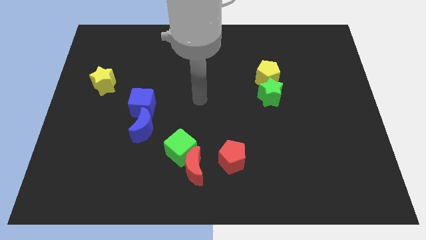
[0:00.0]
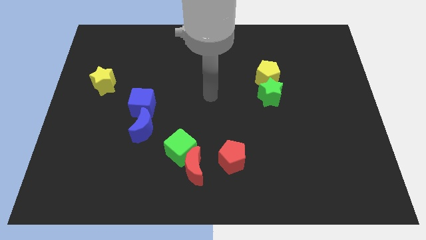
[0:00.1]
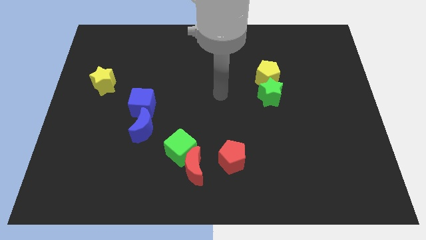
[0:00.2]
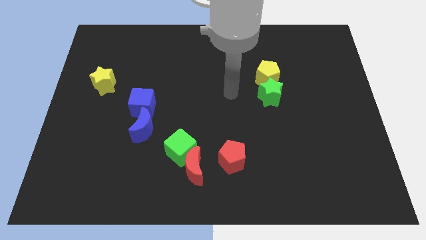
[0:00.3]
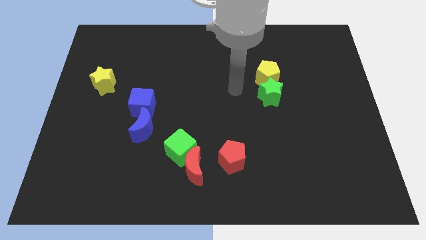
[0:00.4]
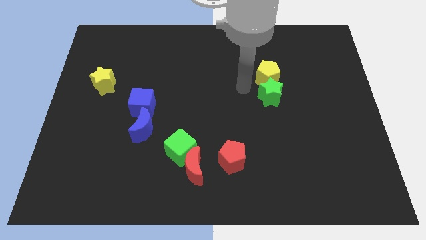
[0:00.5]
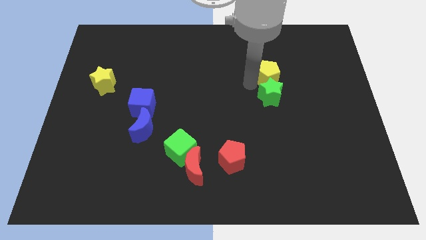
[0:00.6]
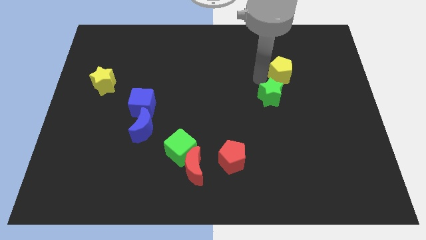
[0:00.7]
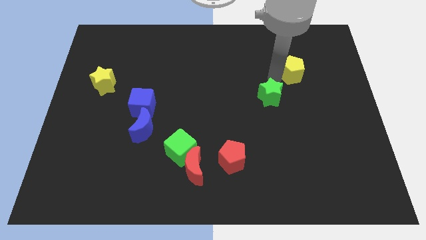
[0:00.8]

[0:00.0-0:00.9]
move the green star away from the yellow pentagon

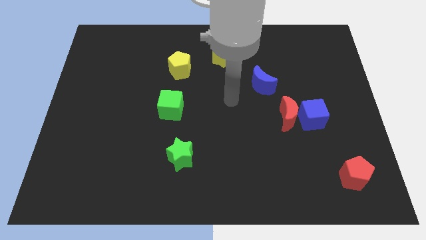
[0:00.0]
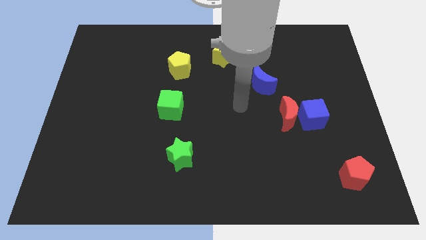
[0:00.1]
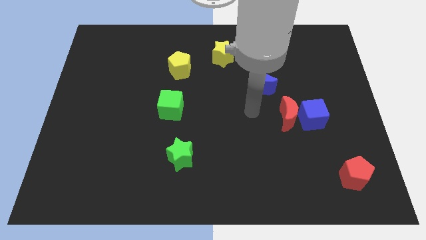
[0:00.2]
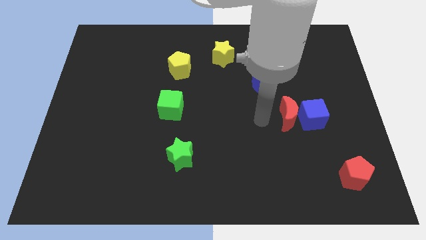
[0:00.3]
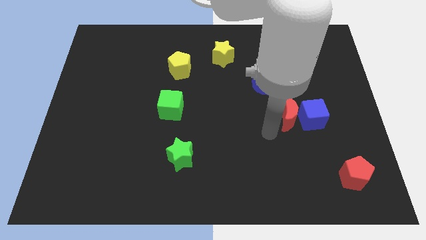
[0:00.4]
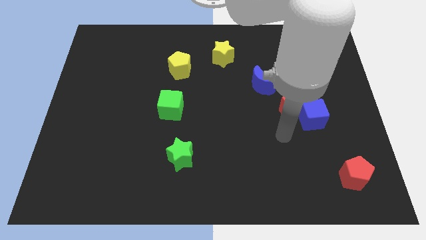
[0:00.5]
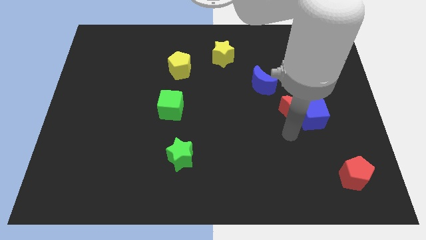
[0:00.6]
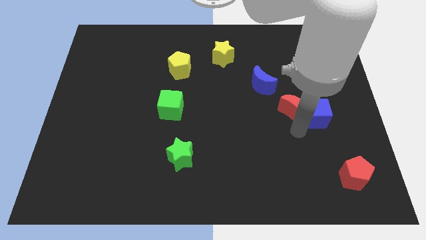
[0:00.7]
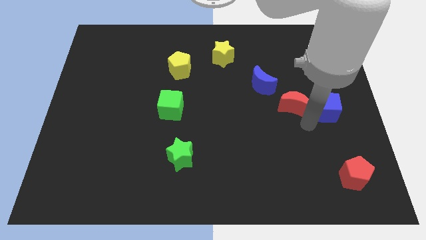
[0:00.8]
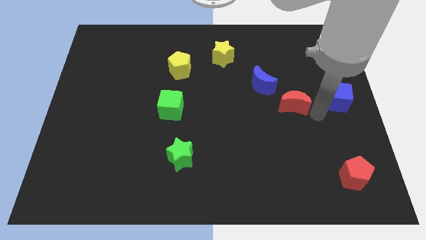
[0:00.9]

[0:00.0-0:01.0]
move the red moon away from the blue cube

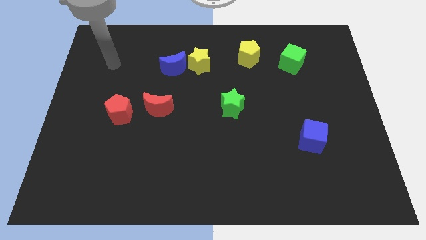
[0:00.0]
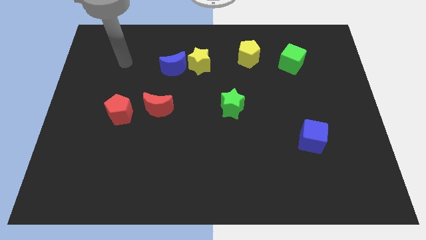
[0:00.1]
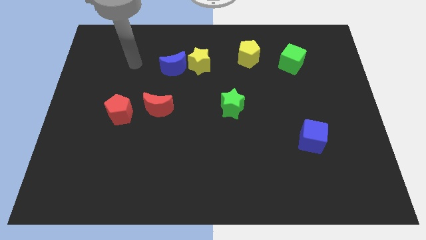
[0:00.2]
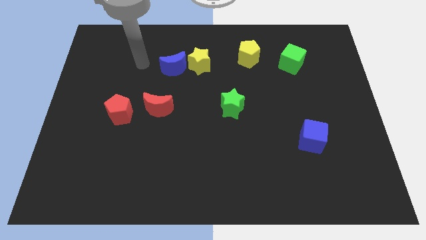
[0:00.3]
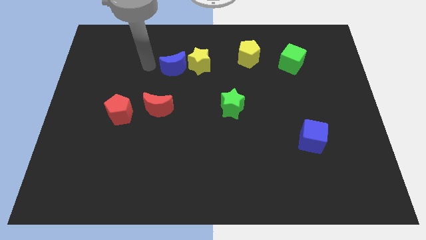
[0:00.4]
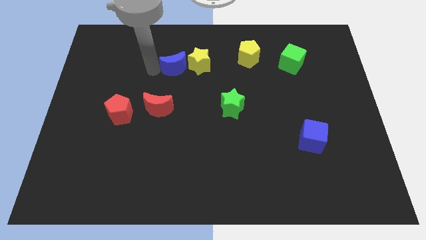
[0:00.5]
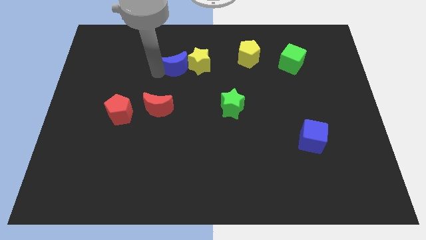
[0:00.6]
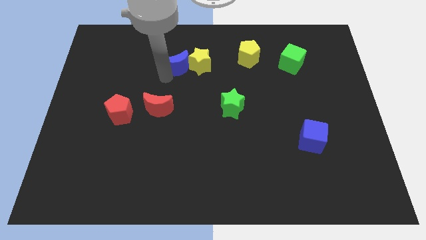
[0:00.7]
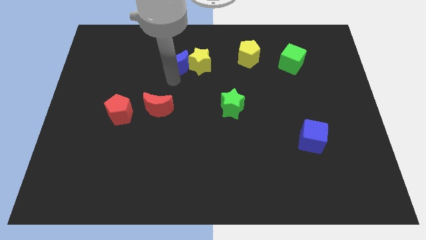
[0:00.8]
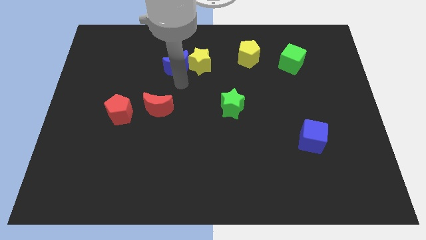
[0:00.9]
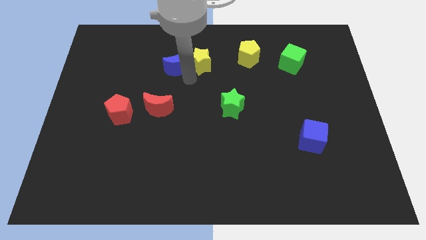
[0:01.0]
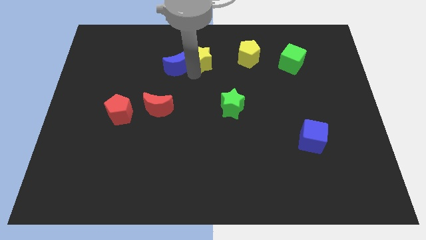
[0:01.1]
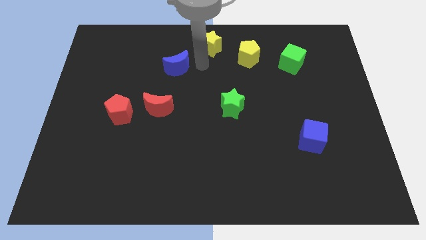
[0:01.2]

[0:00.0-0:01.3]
move the blue moon away from the yellow star

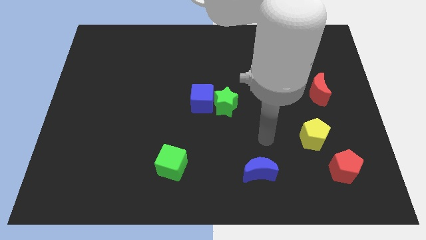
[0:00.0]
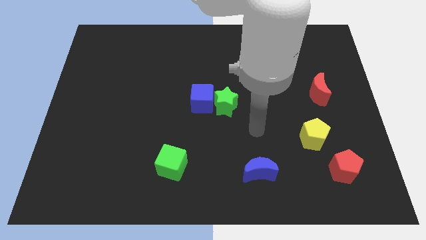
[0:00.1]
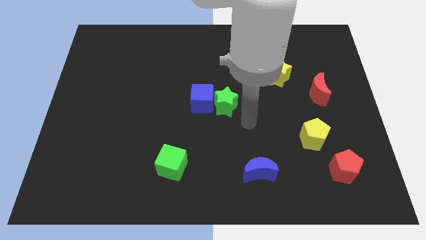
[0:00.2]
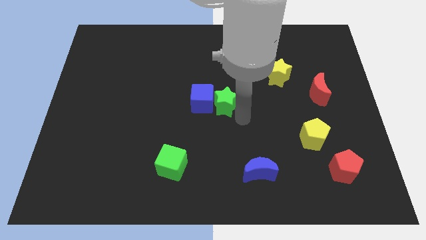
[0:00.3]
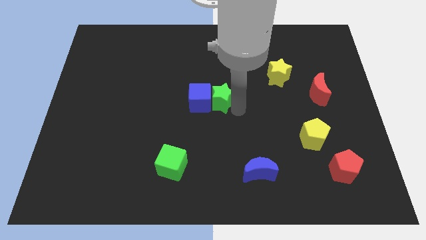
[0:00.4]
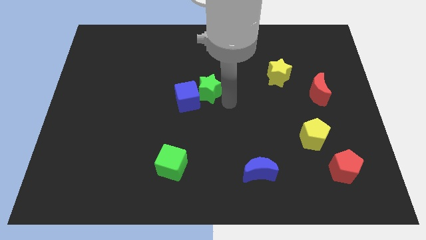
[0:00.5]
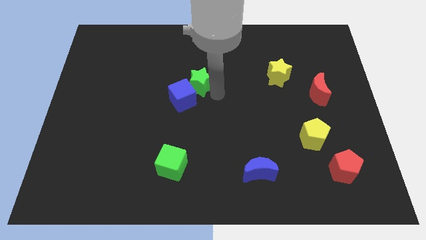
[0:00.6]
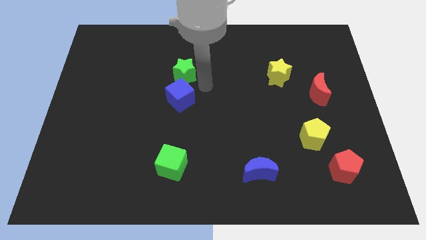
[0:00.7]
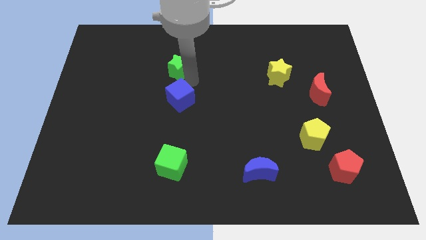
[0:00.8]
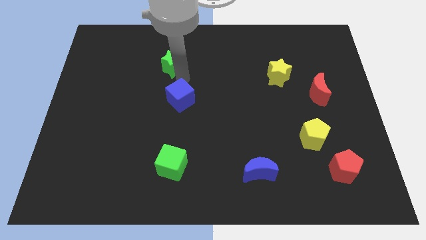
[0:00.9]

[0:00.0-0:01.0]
separate the blue cube from the green star

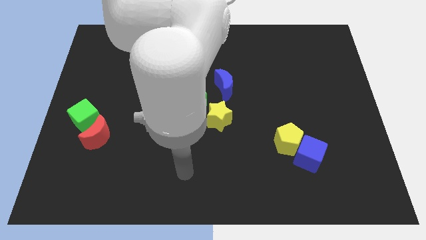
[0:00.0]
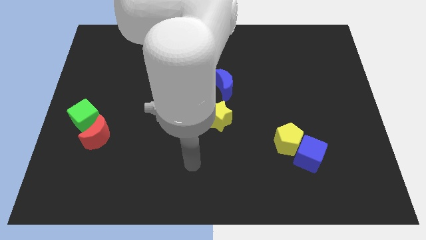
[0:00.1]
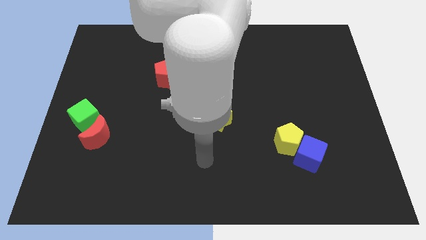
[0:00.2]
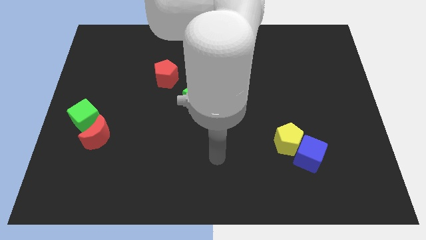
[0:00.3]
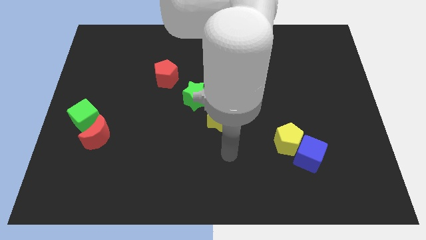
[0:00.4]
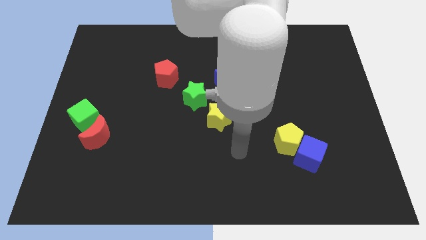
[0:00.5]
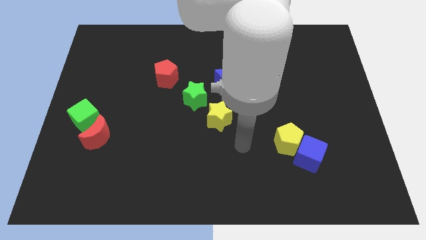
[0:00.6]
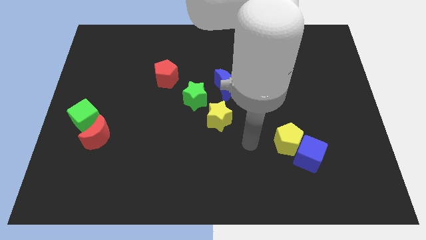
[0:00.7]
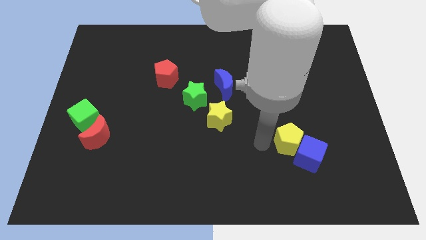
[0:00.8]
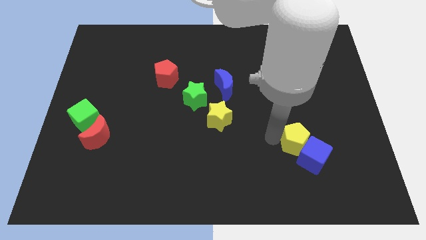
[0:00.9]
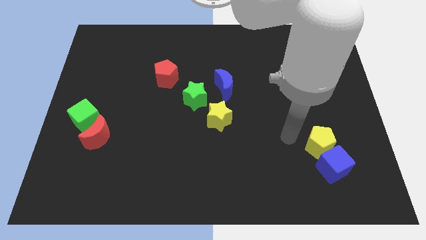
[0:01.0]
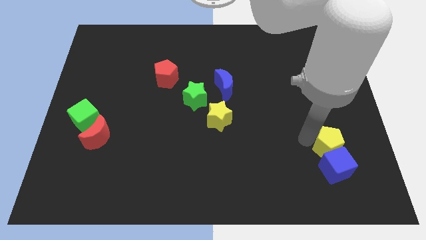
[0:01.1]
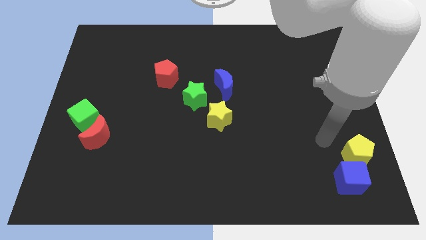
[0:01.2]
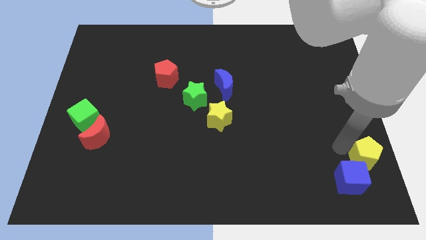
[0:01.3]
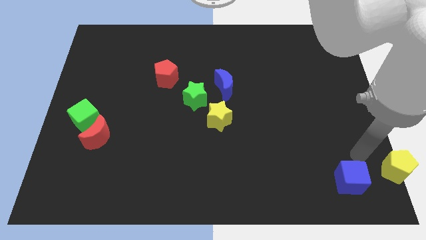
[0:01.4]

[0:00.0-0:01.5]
move the blue cube away from the yellow pentagon

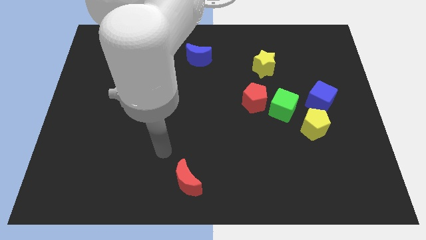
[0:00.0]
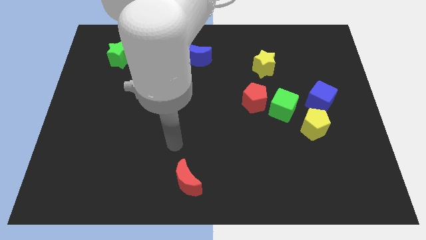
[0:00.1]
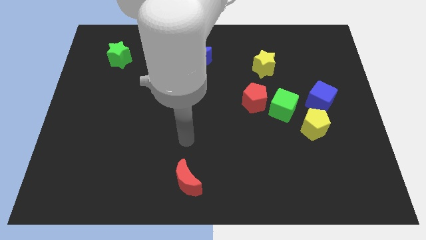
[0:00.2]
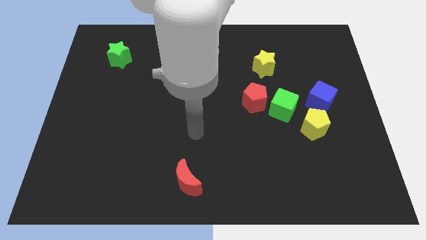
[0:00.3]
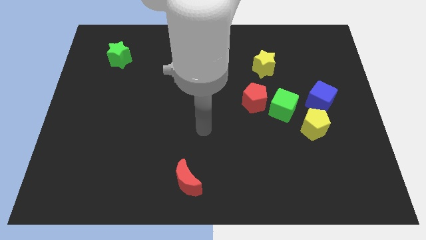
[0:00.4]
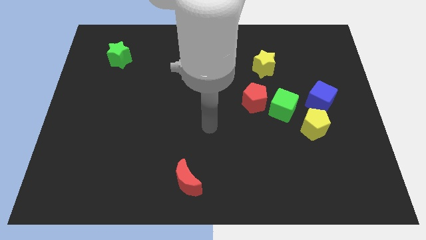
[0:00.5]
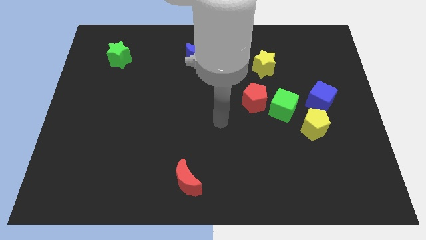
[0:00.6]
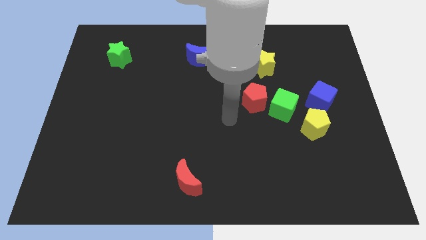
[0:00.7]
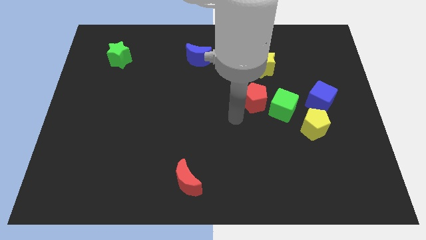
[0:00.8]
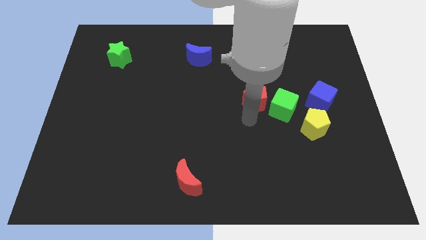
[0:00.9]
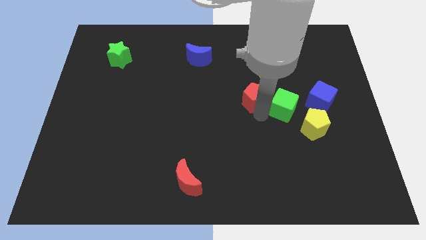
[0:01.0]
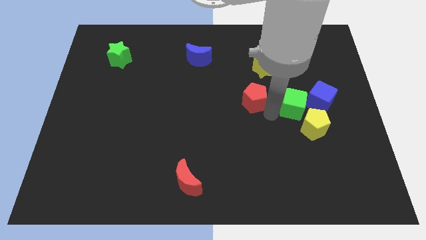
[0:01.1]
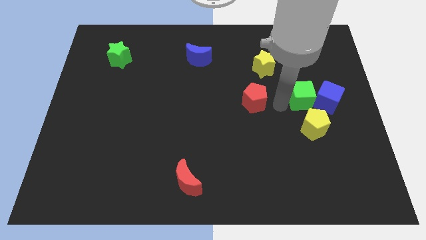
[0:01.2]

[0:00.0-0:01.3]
separate the red pentagon from the green cube

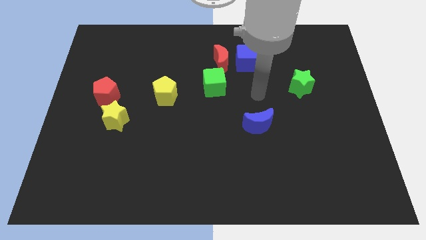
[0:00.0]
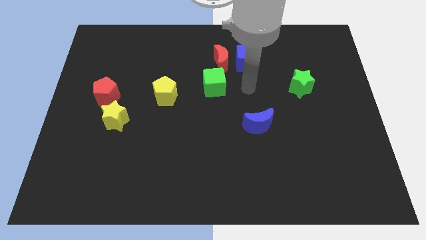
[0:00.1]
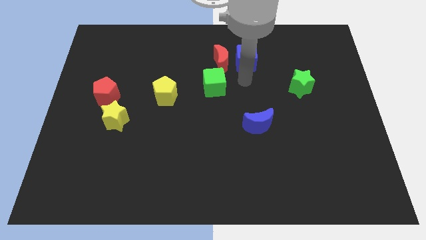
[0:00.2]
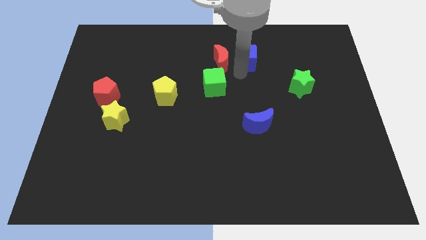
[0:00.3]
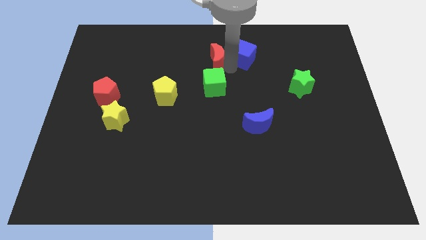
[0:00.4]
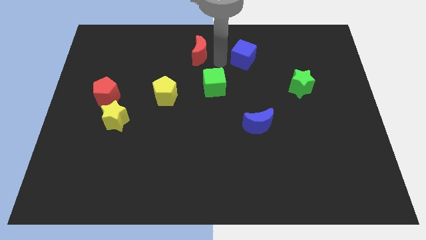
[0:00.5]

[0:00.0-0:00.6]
pull the blue cube apart from the red moon

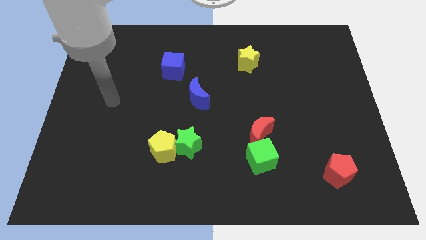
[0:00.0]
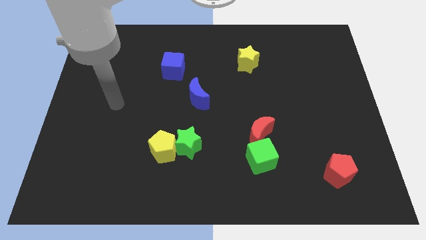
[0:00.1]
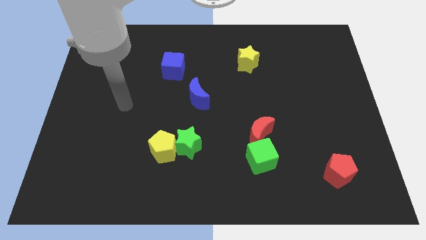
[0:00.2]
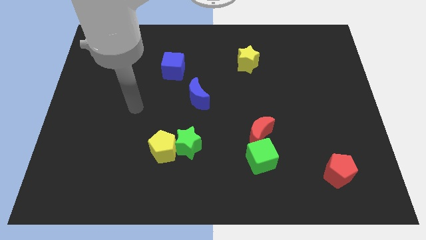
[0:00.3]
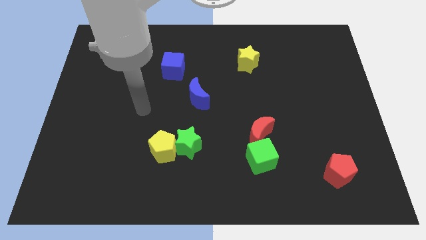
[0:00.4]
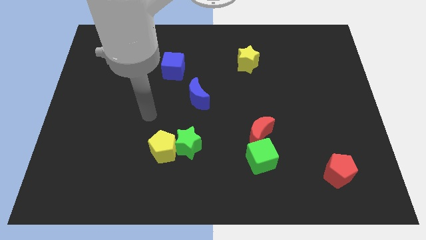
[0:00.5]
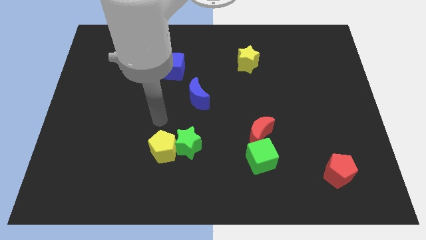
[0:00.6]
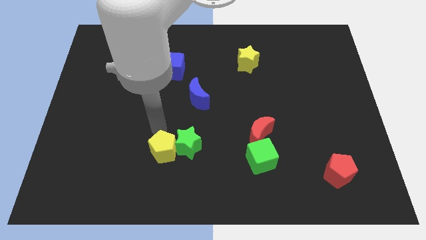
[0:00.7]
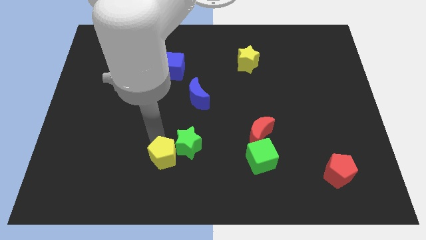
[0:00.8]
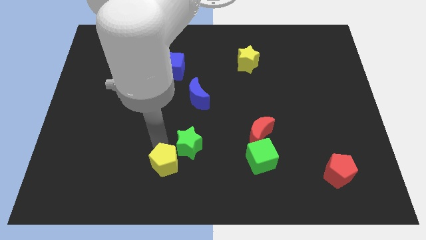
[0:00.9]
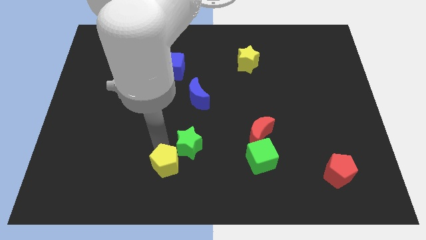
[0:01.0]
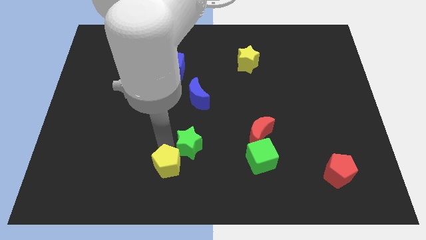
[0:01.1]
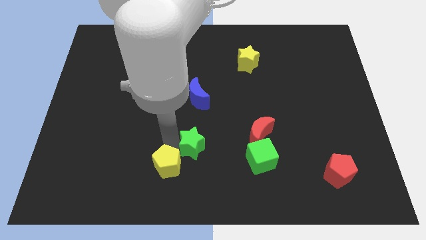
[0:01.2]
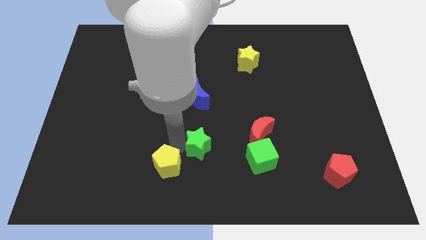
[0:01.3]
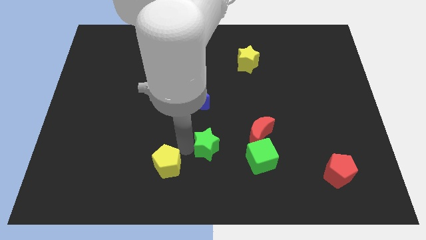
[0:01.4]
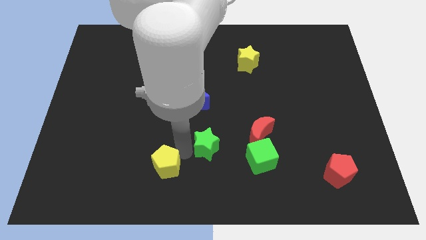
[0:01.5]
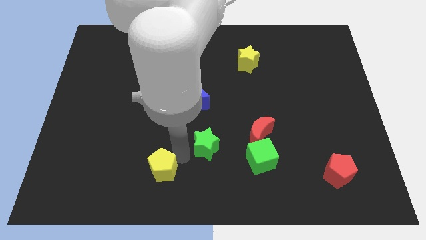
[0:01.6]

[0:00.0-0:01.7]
separate the green star from the yellow pentagon

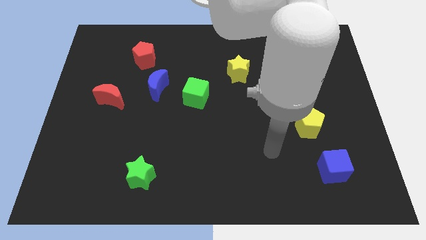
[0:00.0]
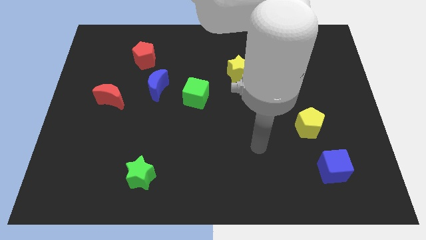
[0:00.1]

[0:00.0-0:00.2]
separate the blue moon from the green cube
